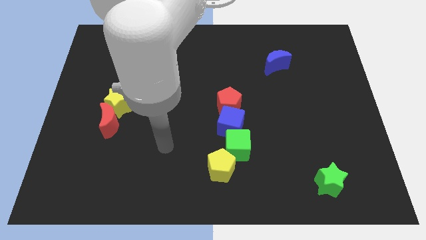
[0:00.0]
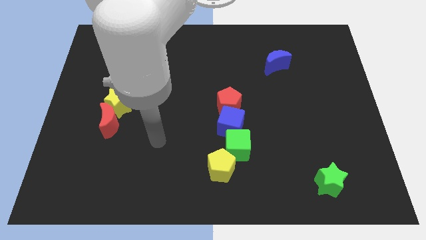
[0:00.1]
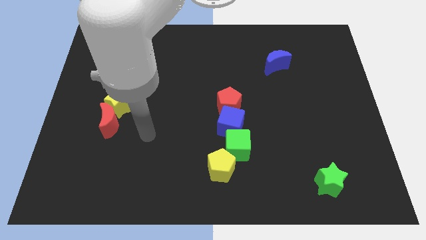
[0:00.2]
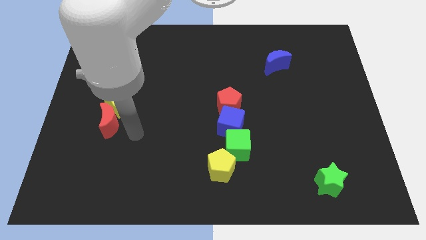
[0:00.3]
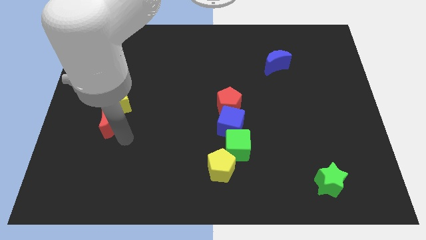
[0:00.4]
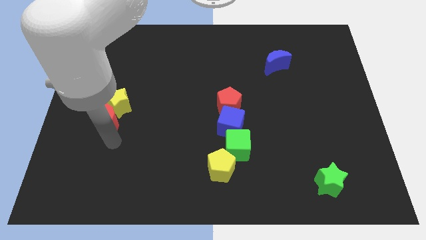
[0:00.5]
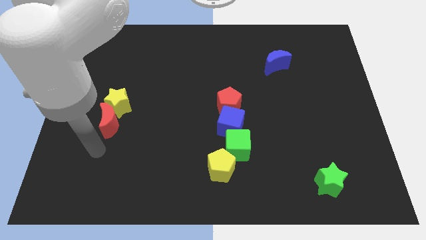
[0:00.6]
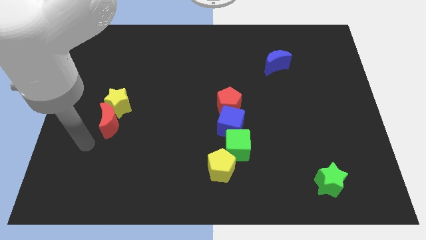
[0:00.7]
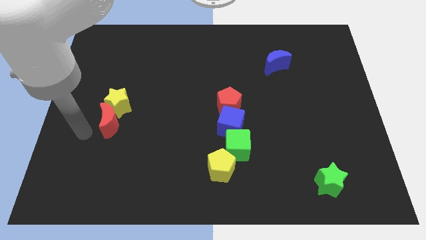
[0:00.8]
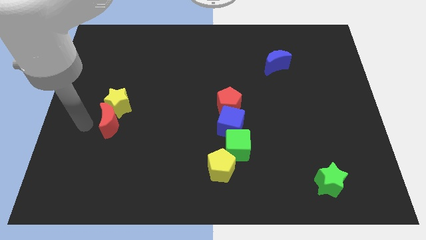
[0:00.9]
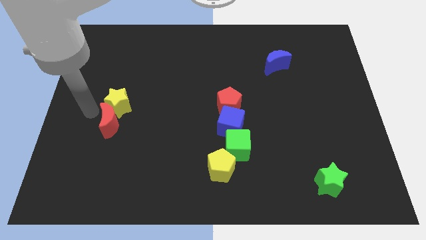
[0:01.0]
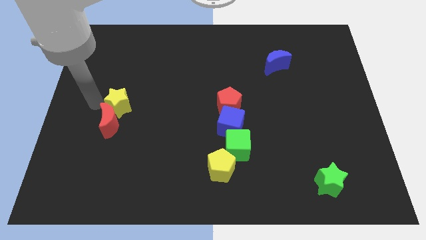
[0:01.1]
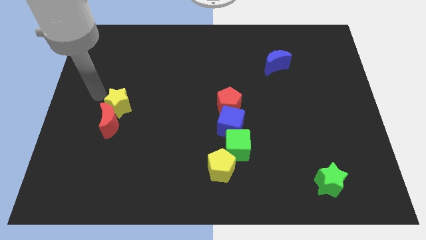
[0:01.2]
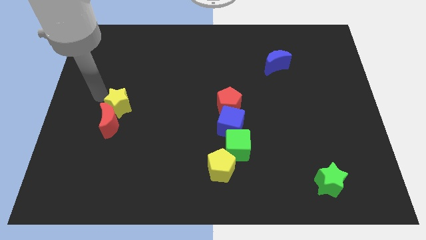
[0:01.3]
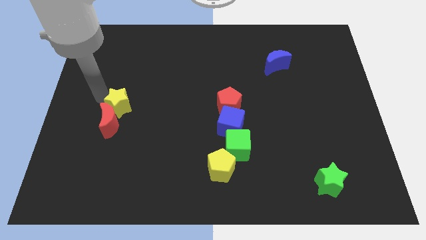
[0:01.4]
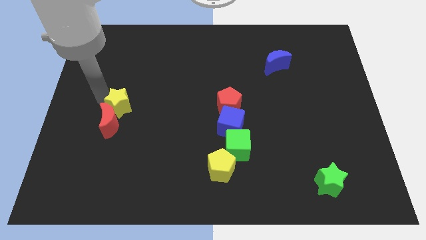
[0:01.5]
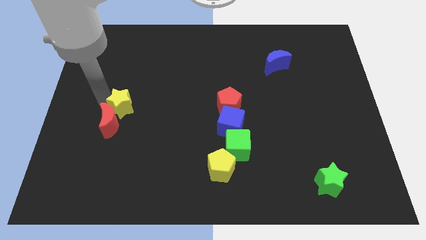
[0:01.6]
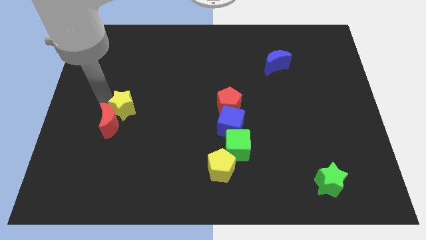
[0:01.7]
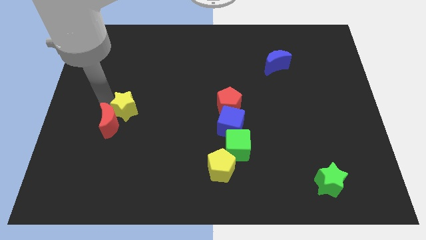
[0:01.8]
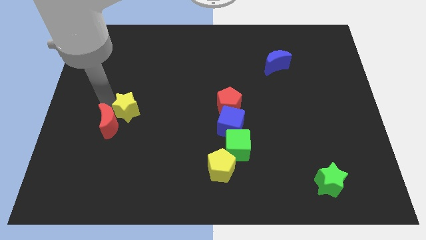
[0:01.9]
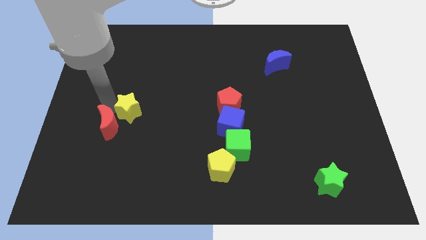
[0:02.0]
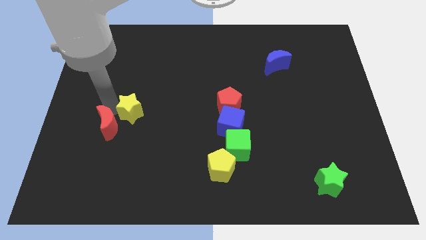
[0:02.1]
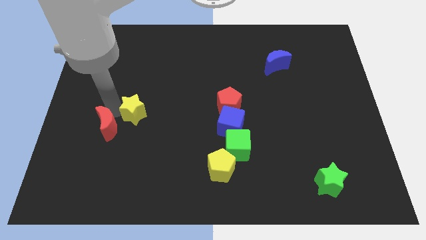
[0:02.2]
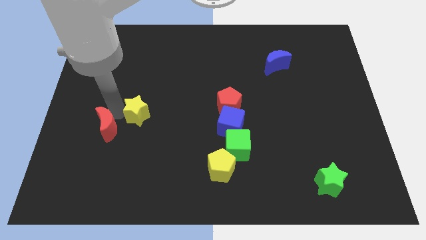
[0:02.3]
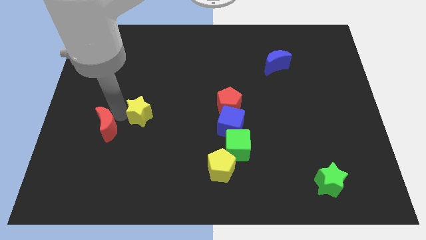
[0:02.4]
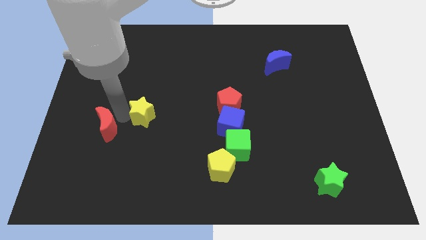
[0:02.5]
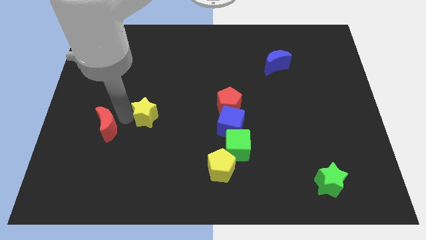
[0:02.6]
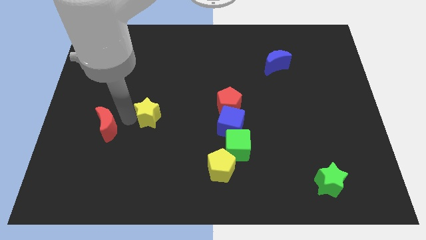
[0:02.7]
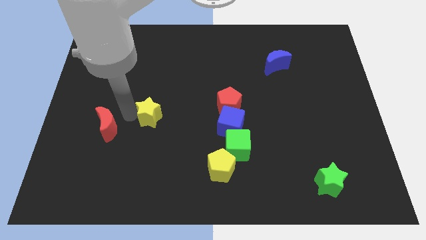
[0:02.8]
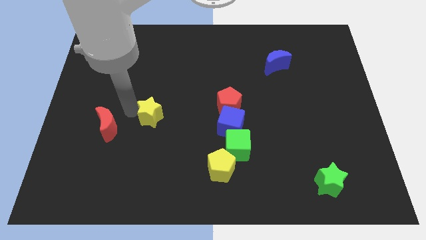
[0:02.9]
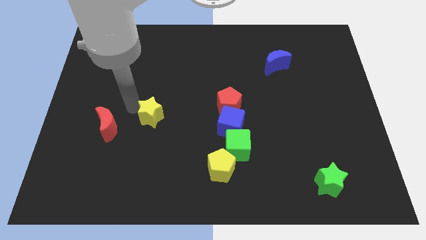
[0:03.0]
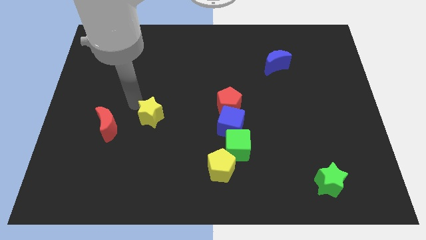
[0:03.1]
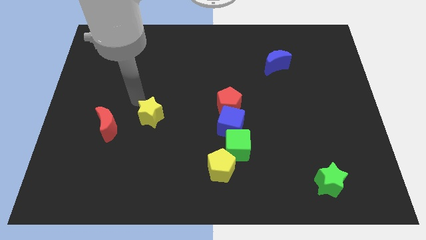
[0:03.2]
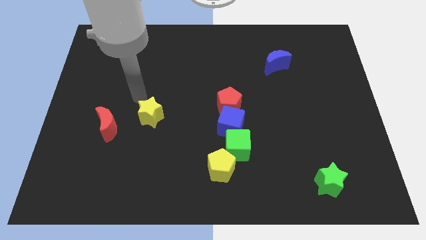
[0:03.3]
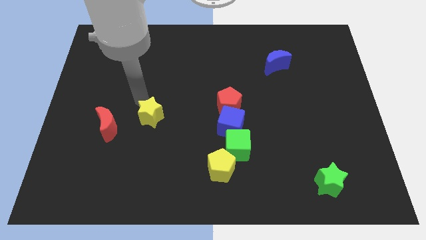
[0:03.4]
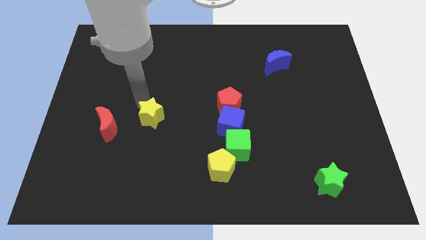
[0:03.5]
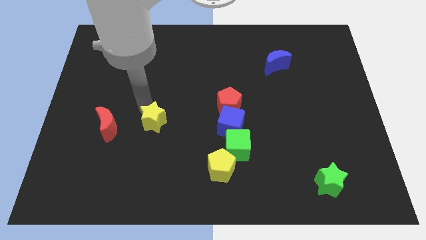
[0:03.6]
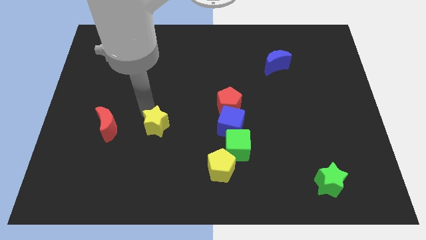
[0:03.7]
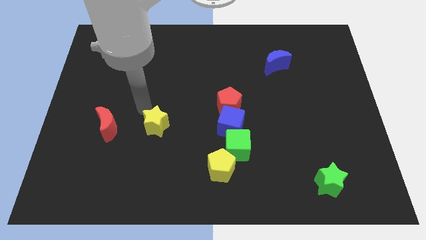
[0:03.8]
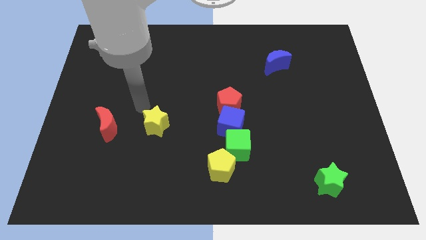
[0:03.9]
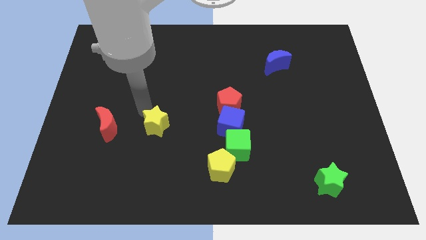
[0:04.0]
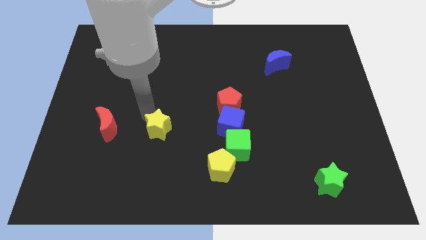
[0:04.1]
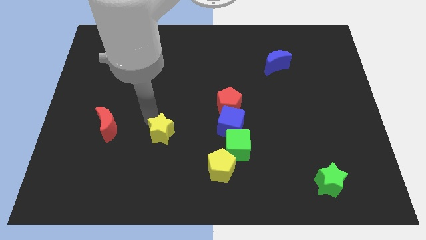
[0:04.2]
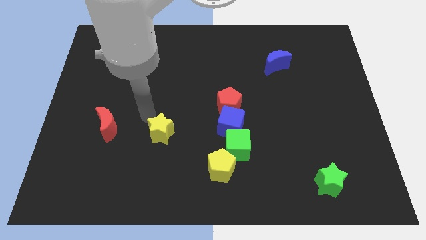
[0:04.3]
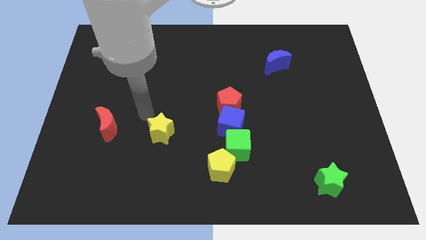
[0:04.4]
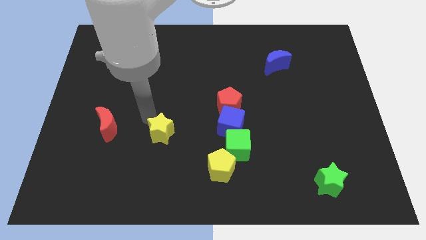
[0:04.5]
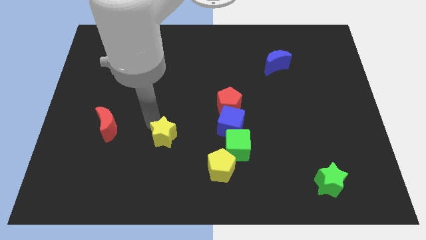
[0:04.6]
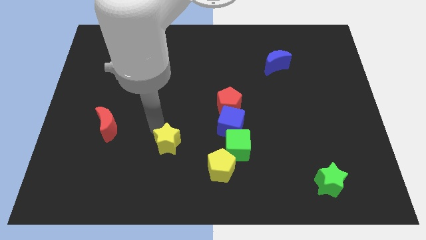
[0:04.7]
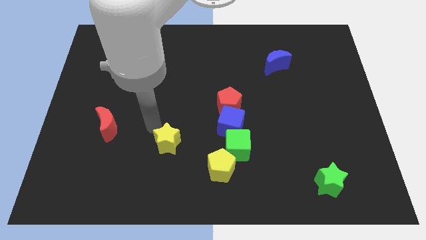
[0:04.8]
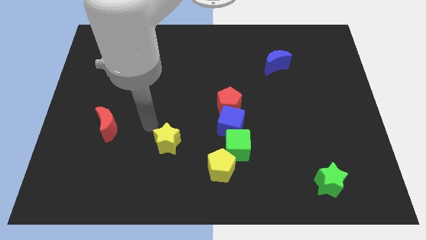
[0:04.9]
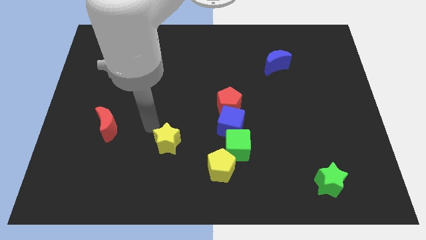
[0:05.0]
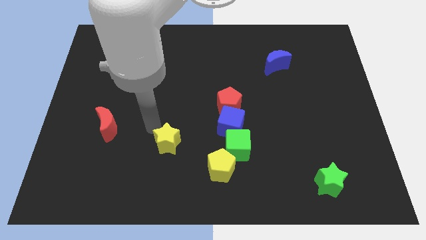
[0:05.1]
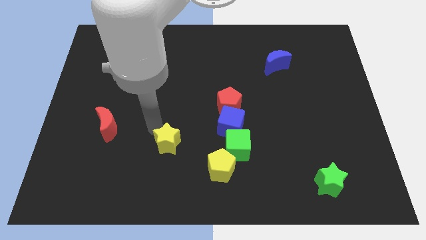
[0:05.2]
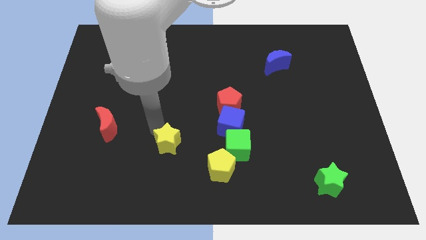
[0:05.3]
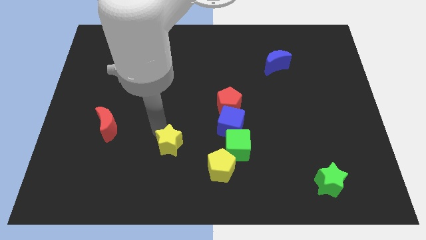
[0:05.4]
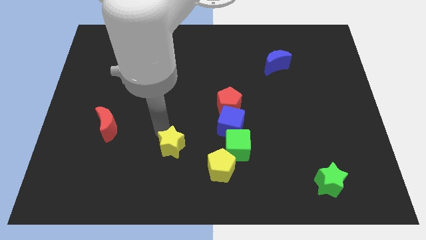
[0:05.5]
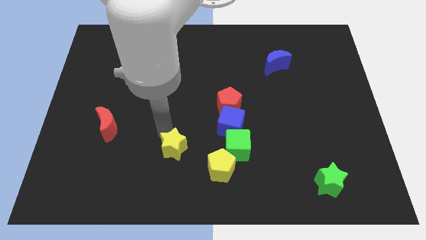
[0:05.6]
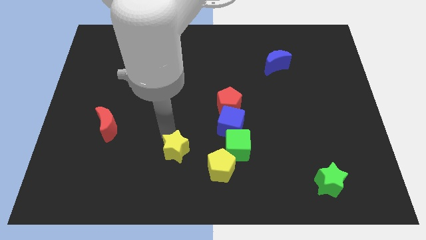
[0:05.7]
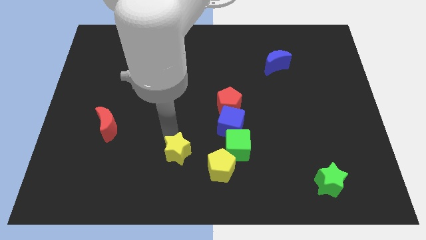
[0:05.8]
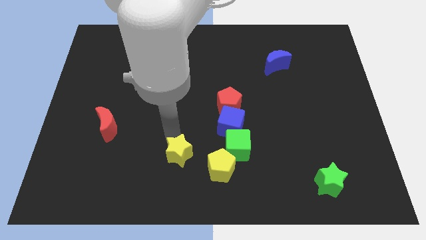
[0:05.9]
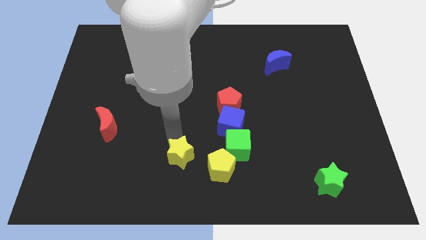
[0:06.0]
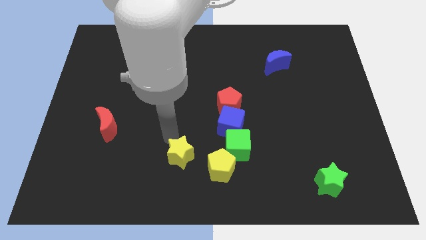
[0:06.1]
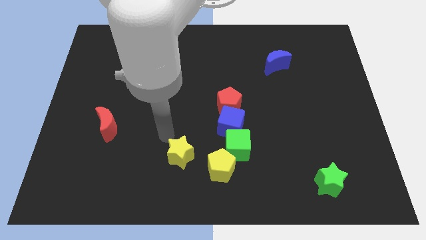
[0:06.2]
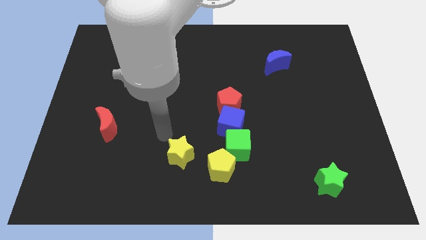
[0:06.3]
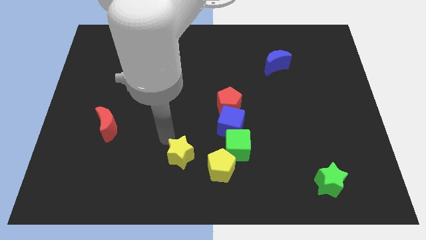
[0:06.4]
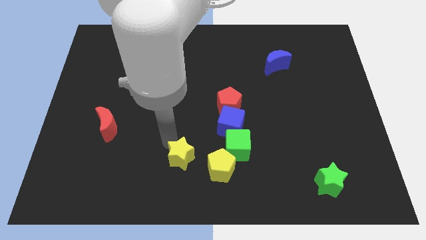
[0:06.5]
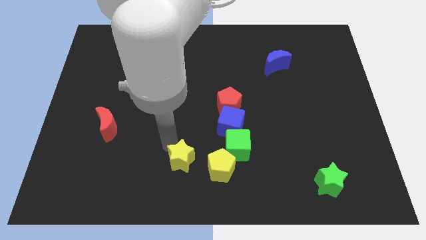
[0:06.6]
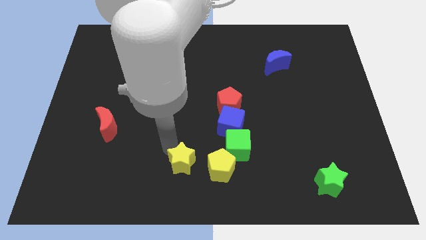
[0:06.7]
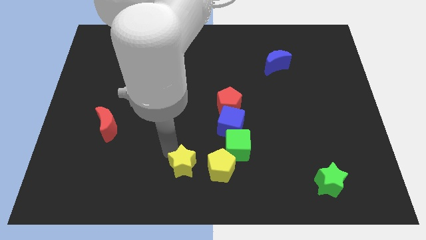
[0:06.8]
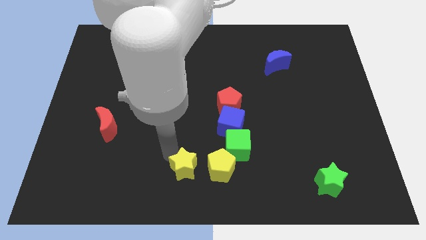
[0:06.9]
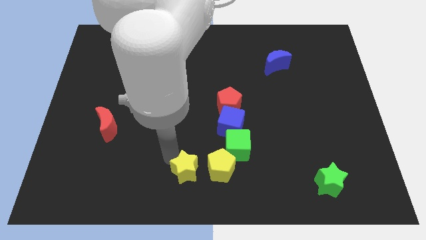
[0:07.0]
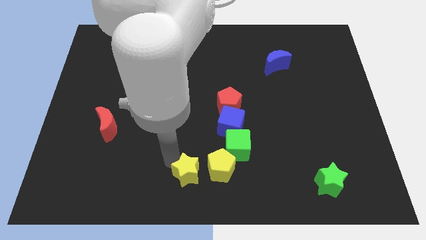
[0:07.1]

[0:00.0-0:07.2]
move the yellow star diagonally down and to the left of the green cube
